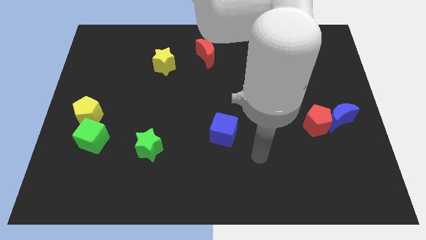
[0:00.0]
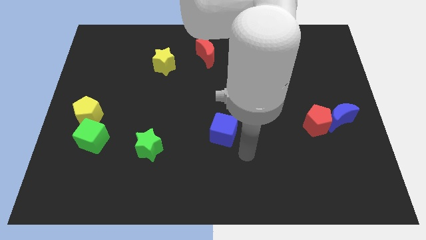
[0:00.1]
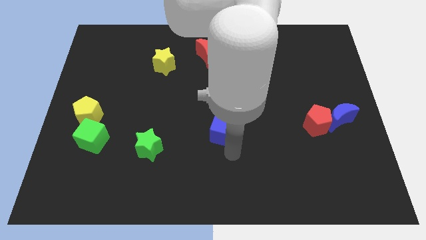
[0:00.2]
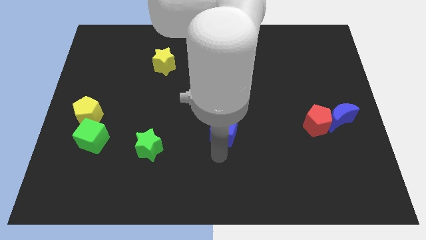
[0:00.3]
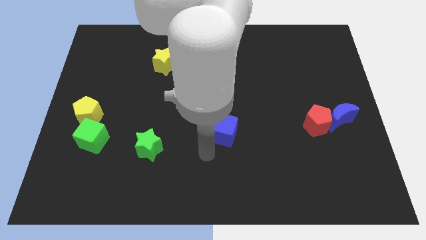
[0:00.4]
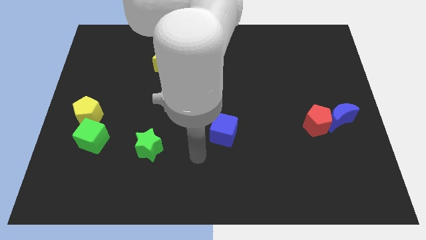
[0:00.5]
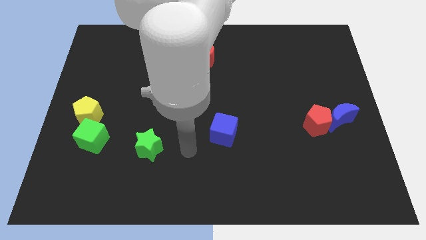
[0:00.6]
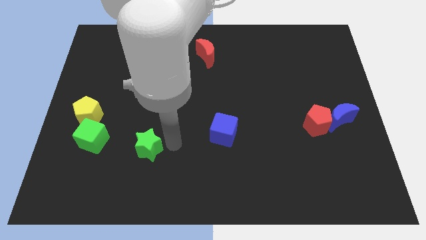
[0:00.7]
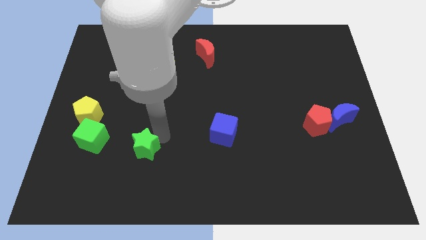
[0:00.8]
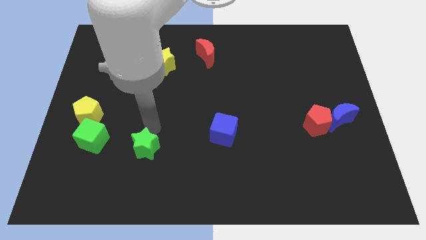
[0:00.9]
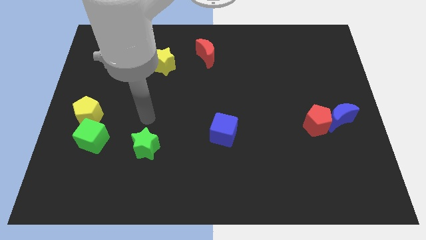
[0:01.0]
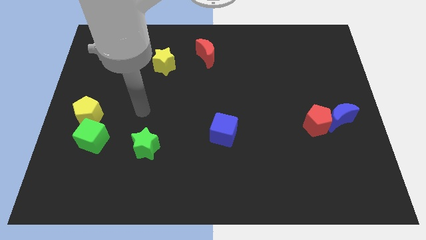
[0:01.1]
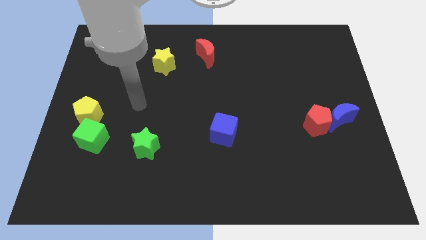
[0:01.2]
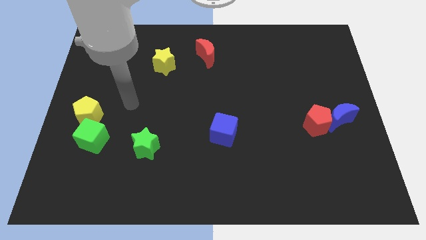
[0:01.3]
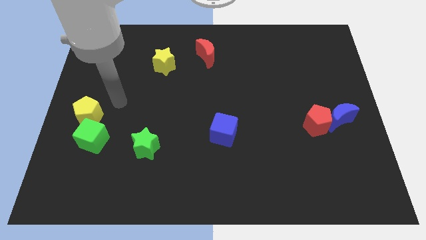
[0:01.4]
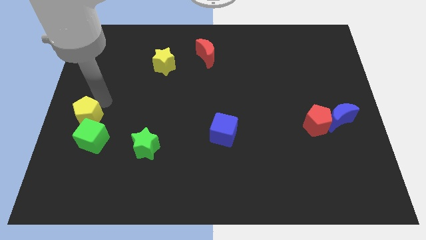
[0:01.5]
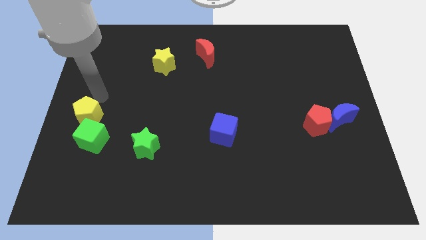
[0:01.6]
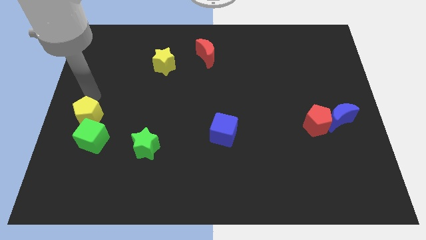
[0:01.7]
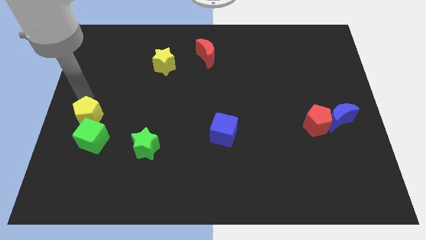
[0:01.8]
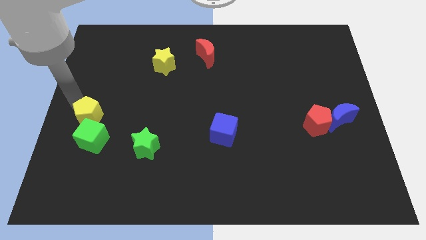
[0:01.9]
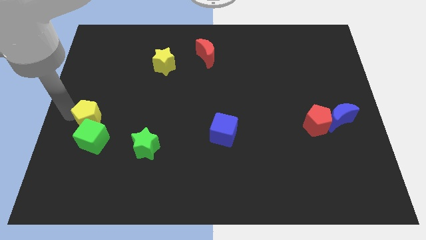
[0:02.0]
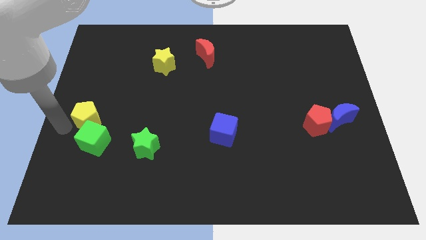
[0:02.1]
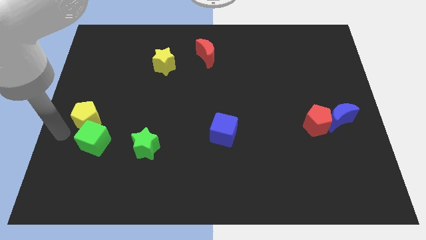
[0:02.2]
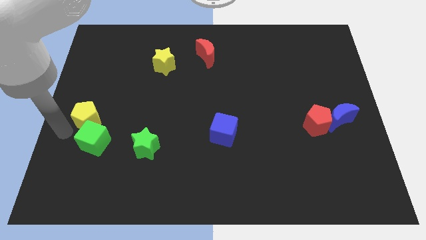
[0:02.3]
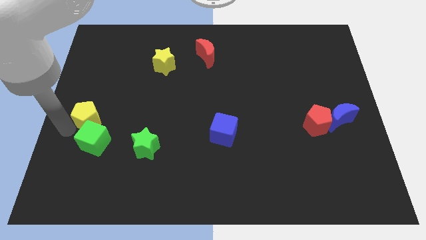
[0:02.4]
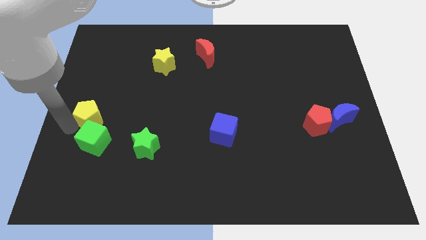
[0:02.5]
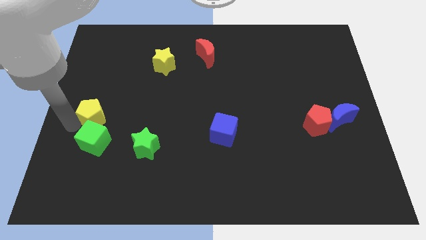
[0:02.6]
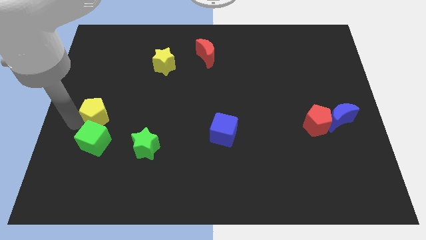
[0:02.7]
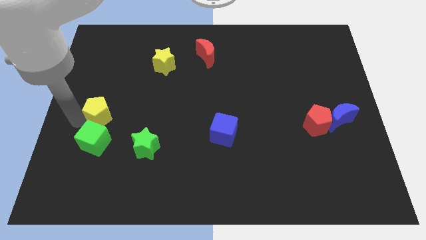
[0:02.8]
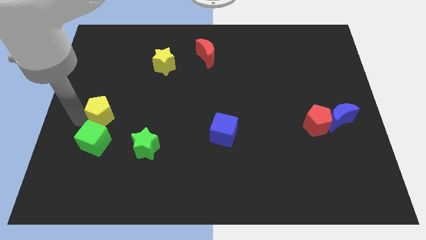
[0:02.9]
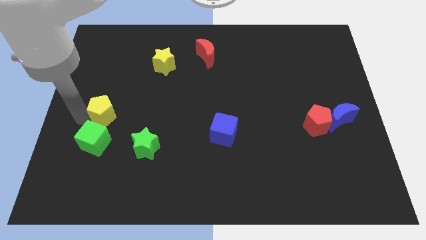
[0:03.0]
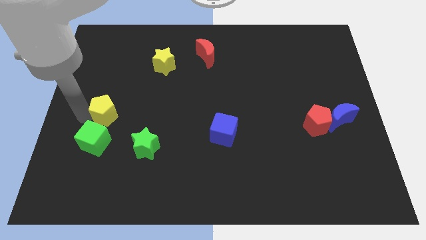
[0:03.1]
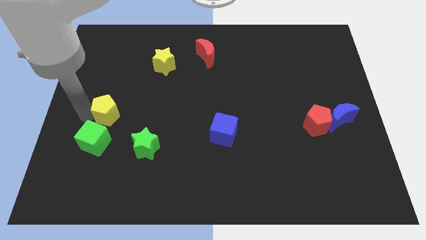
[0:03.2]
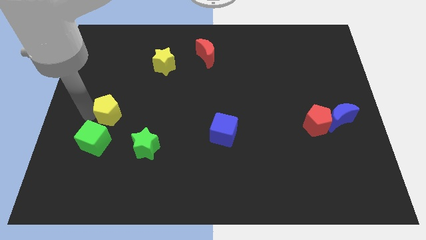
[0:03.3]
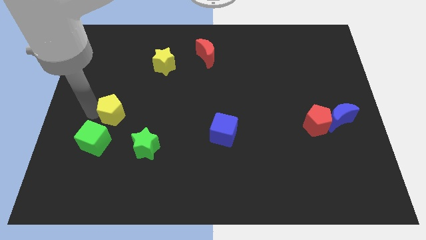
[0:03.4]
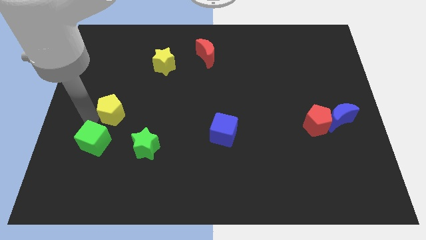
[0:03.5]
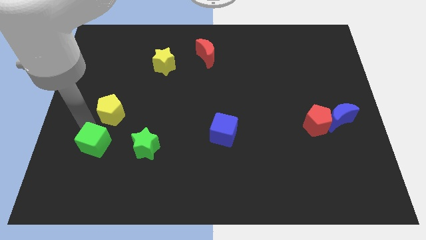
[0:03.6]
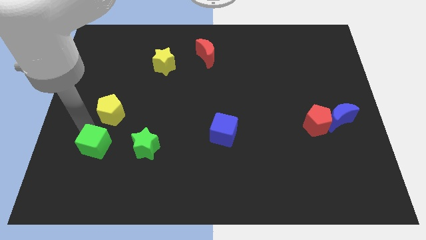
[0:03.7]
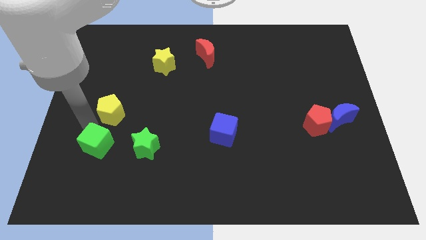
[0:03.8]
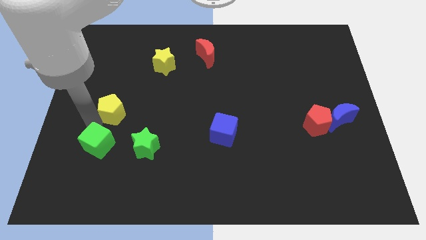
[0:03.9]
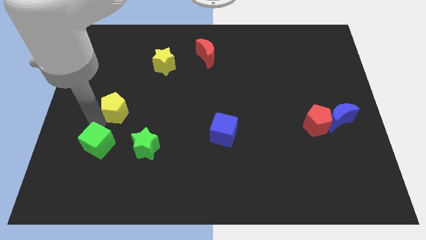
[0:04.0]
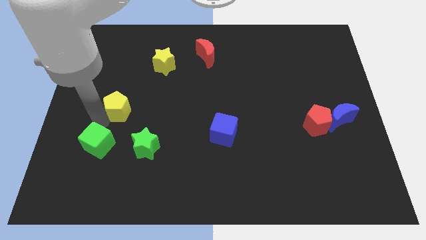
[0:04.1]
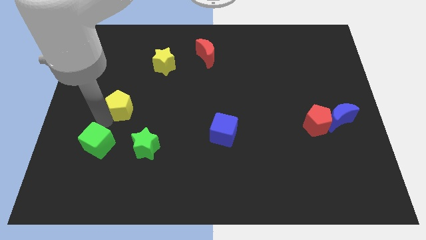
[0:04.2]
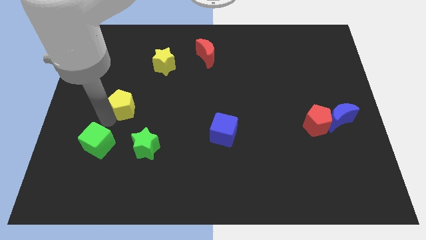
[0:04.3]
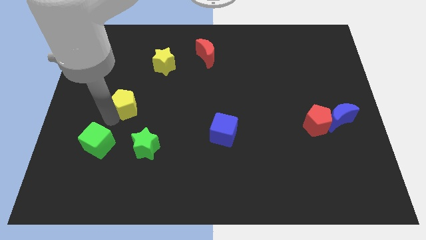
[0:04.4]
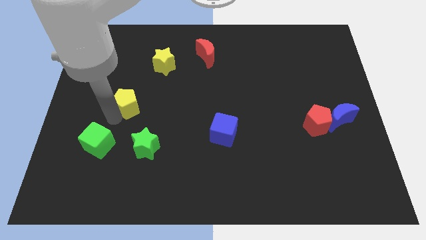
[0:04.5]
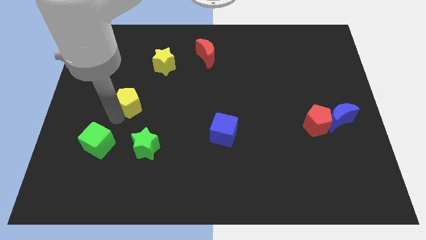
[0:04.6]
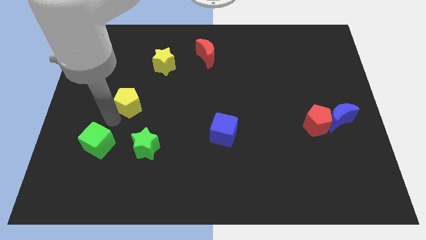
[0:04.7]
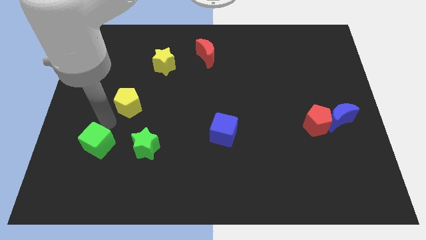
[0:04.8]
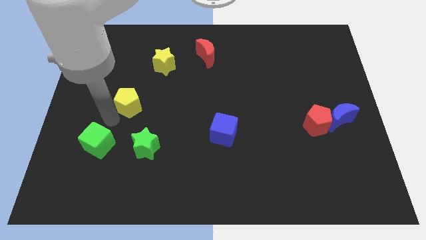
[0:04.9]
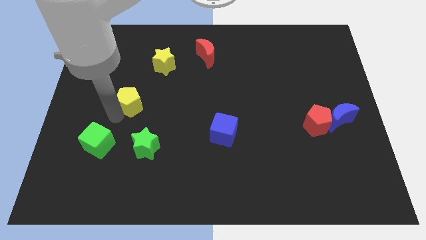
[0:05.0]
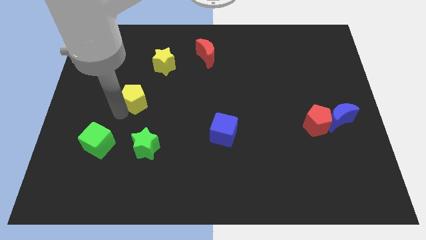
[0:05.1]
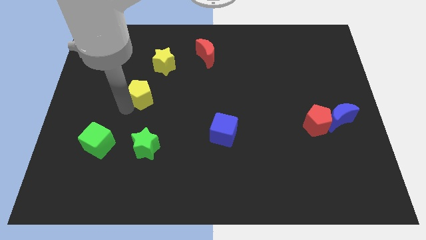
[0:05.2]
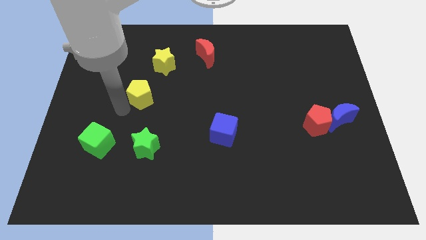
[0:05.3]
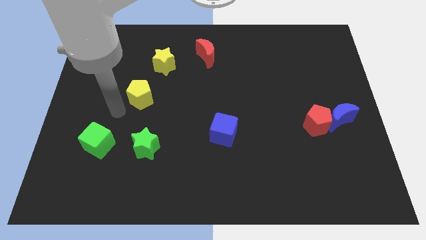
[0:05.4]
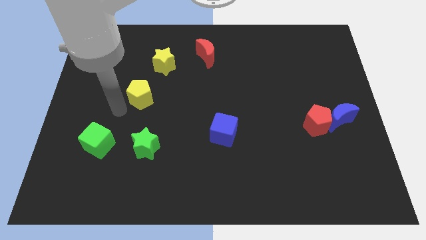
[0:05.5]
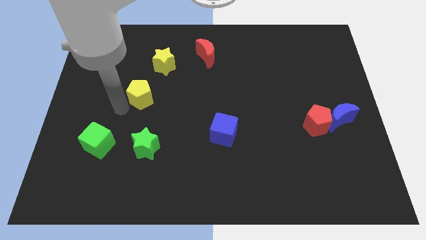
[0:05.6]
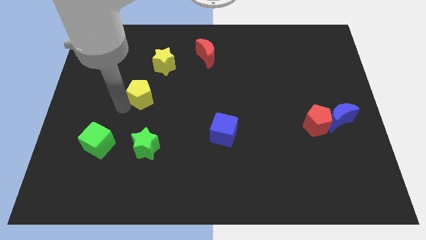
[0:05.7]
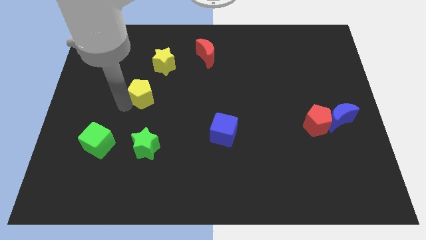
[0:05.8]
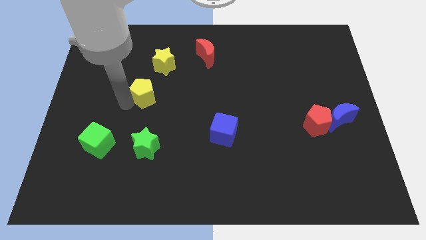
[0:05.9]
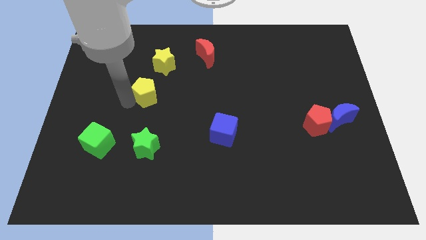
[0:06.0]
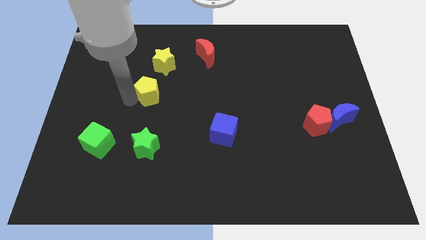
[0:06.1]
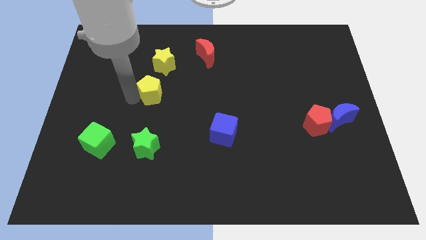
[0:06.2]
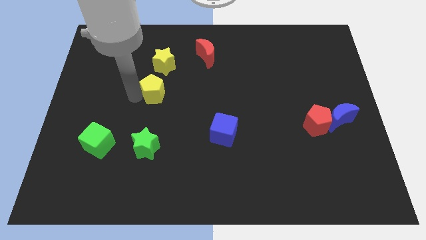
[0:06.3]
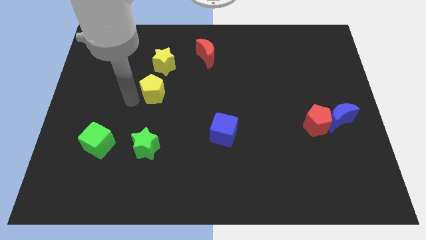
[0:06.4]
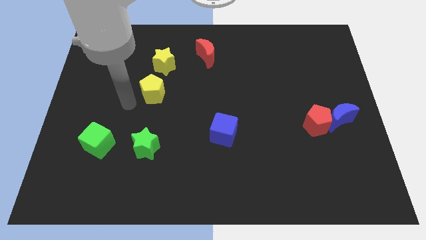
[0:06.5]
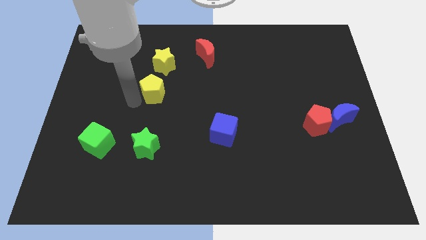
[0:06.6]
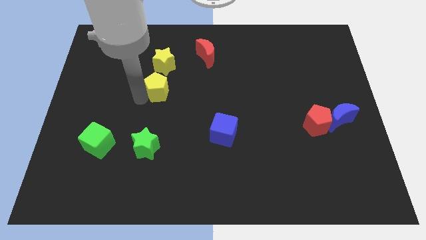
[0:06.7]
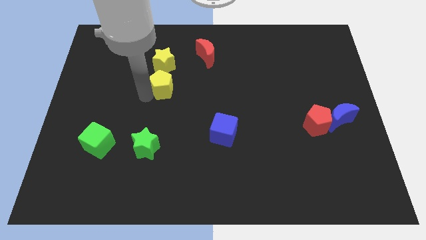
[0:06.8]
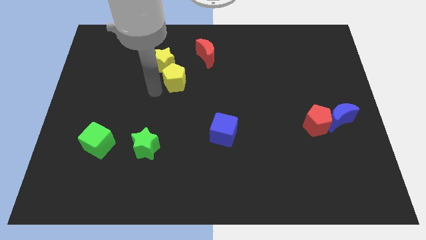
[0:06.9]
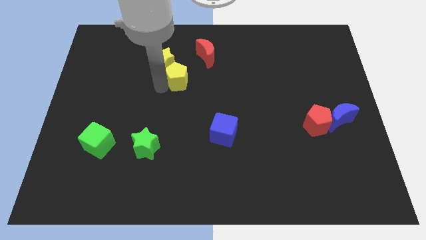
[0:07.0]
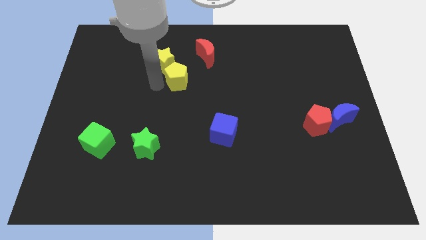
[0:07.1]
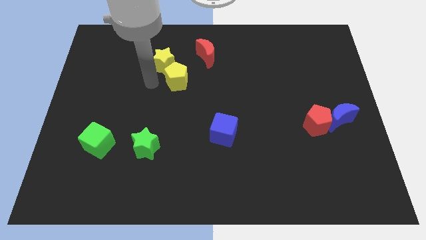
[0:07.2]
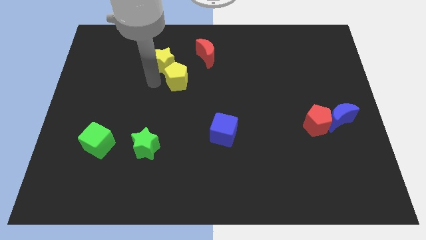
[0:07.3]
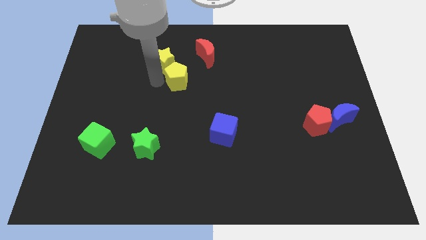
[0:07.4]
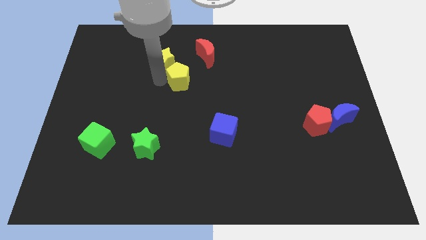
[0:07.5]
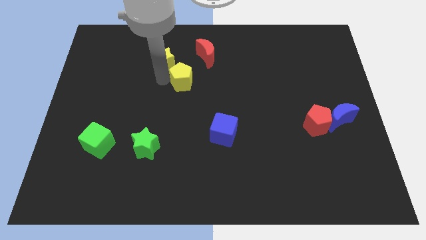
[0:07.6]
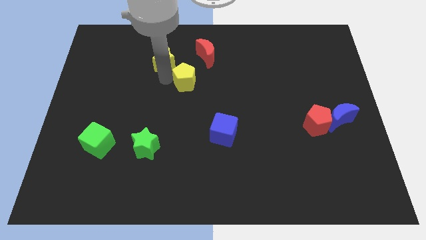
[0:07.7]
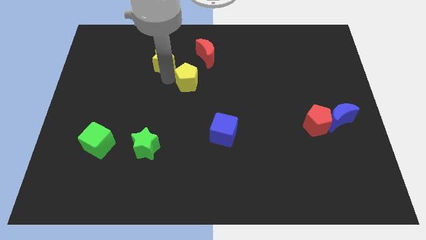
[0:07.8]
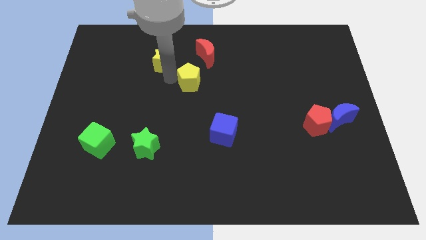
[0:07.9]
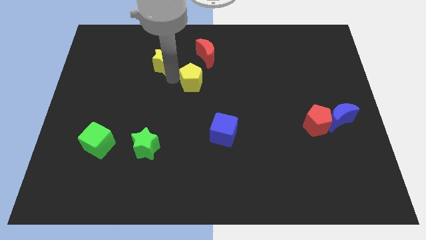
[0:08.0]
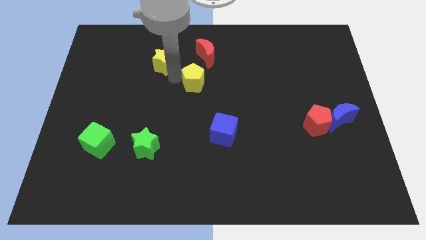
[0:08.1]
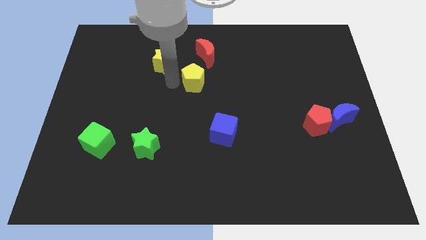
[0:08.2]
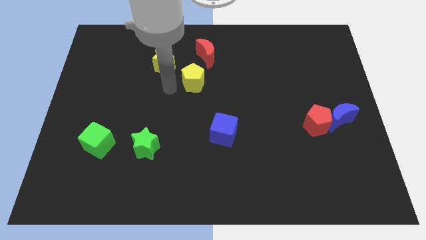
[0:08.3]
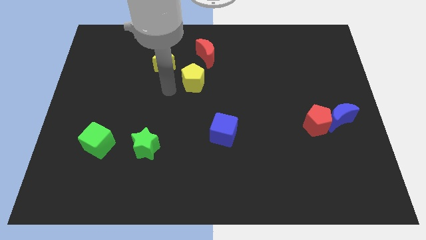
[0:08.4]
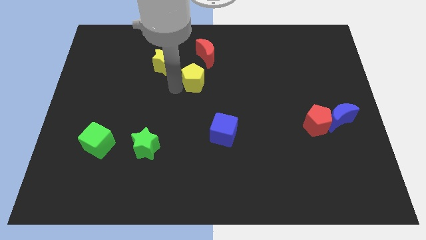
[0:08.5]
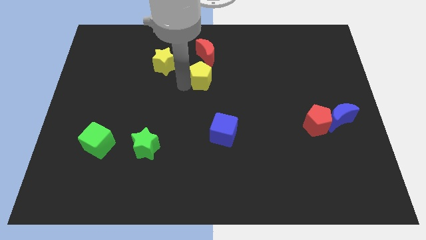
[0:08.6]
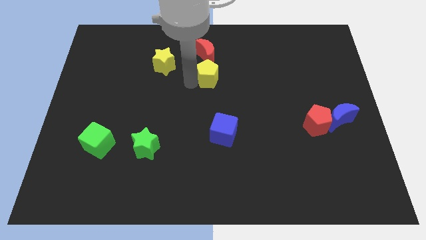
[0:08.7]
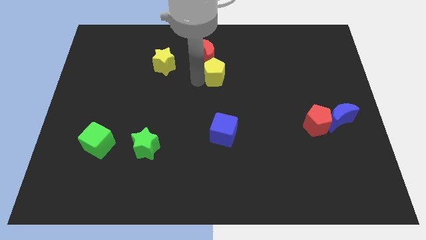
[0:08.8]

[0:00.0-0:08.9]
put the yellow pentagon diagonally down and to the right of the red moon
